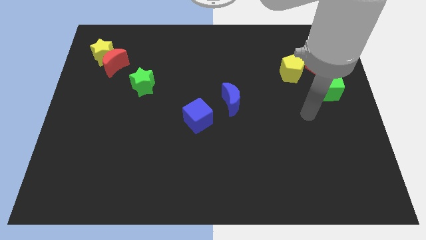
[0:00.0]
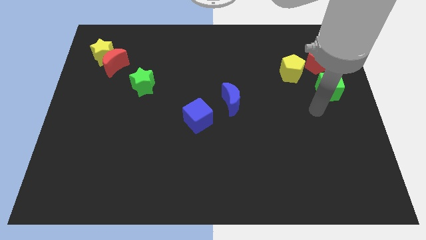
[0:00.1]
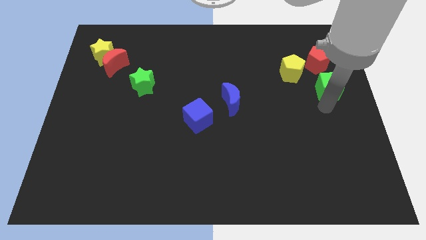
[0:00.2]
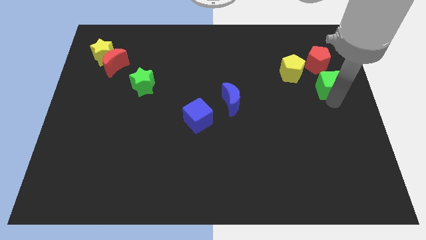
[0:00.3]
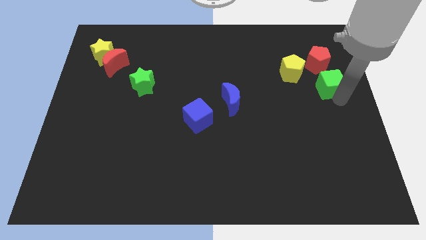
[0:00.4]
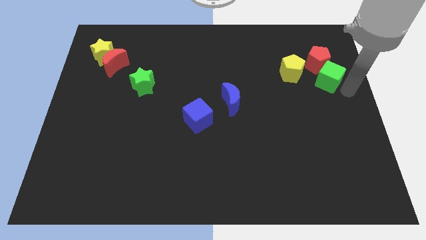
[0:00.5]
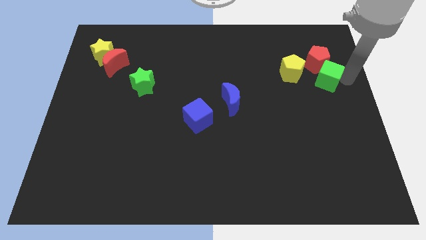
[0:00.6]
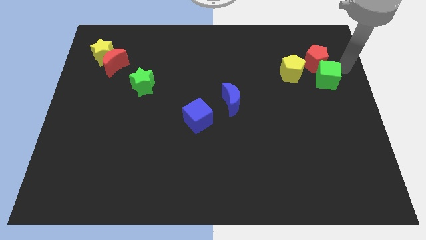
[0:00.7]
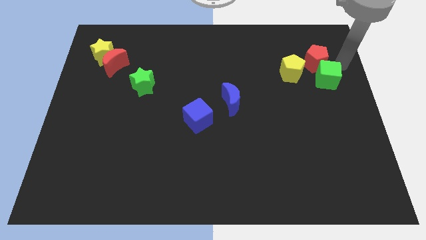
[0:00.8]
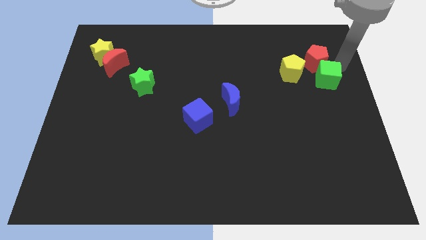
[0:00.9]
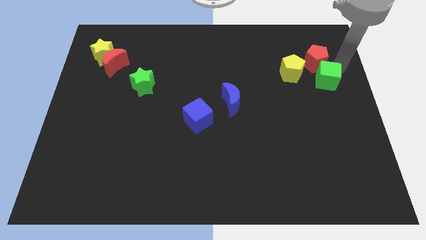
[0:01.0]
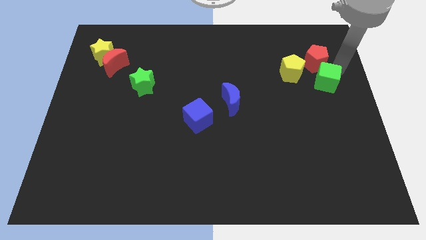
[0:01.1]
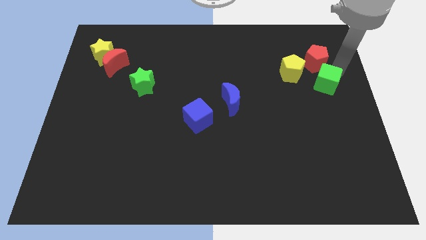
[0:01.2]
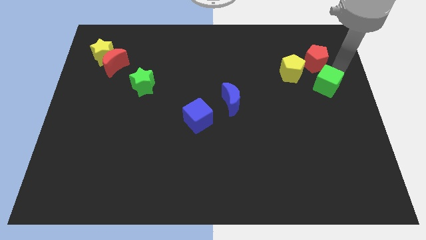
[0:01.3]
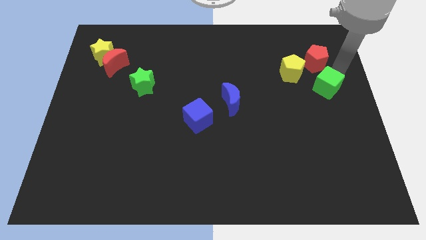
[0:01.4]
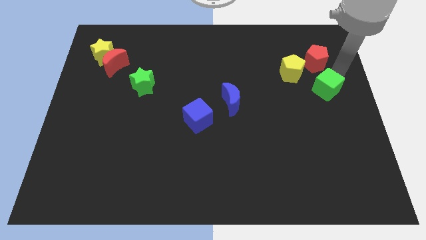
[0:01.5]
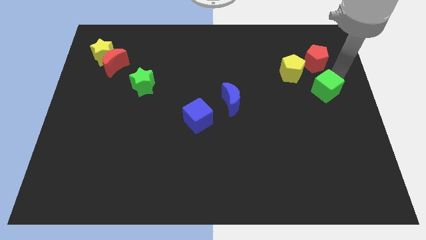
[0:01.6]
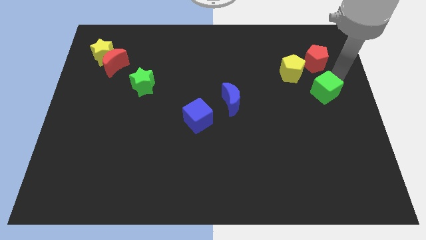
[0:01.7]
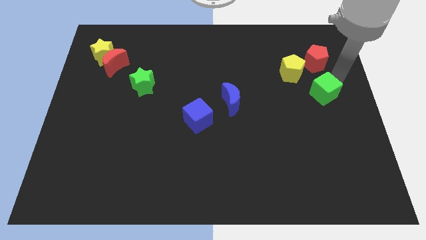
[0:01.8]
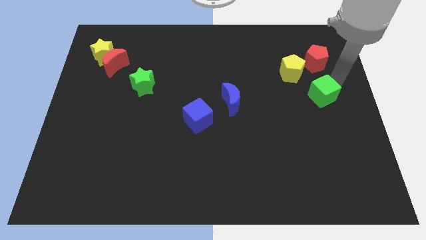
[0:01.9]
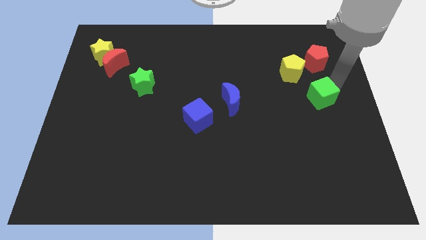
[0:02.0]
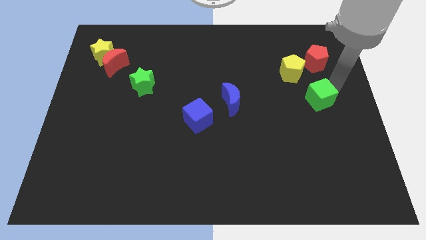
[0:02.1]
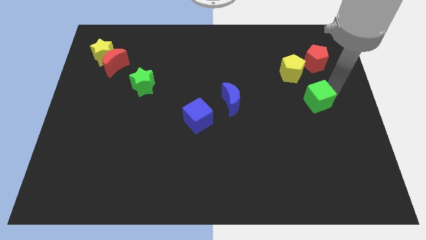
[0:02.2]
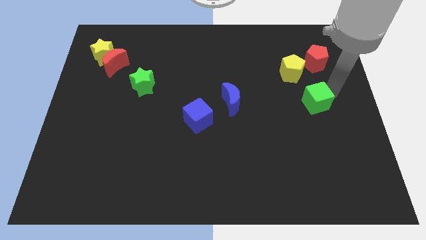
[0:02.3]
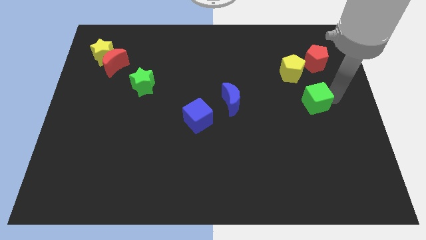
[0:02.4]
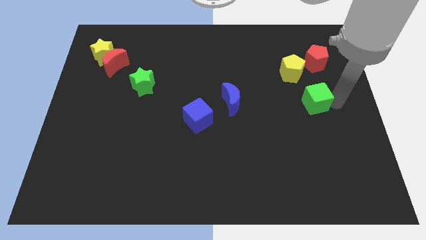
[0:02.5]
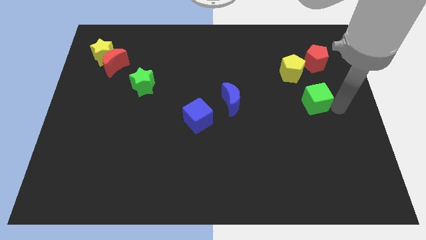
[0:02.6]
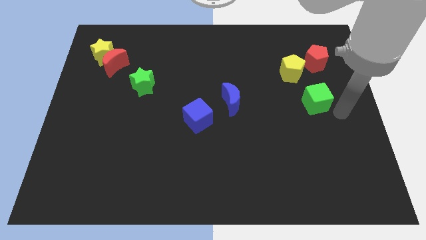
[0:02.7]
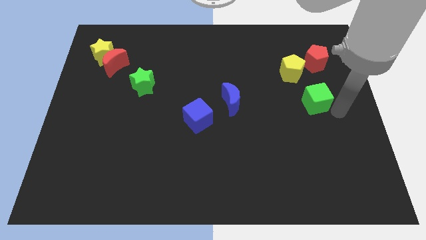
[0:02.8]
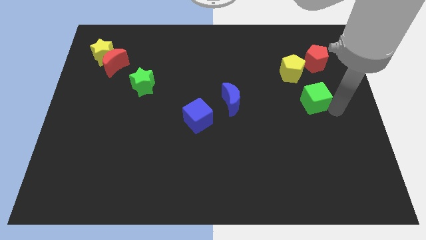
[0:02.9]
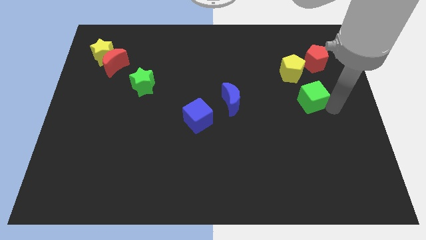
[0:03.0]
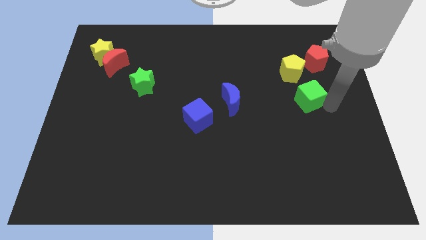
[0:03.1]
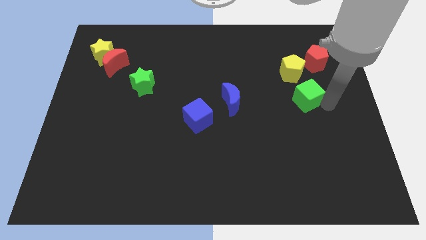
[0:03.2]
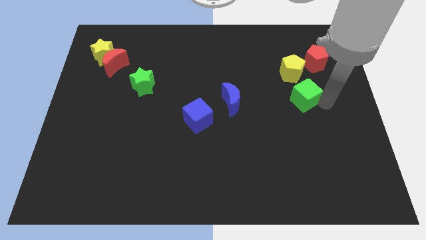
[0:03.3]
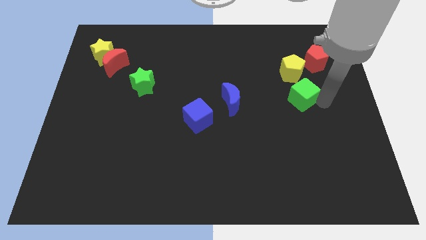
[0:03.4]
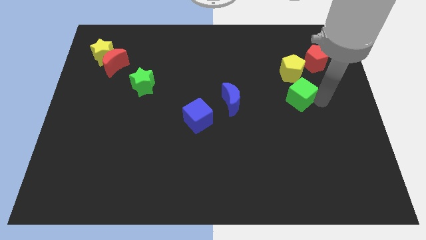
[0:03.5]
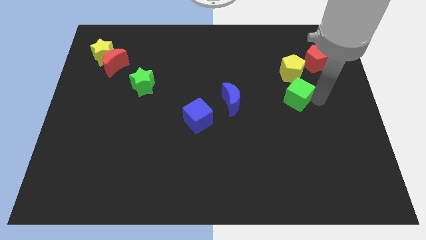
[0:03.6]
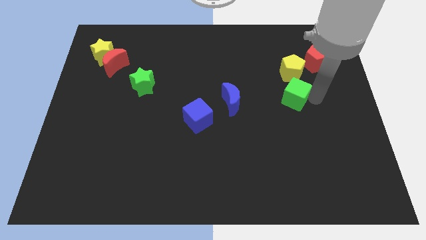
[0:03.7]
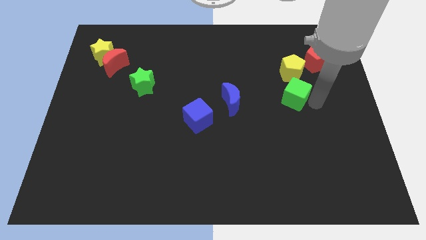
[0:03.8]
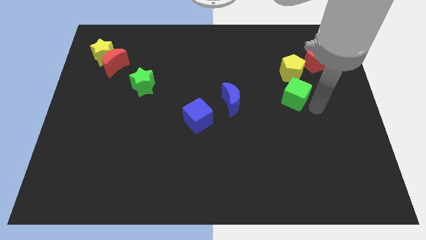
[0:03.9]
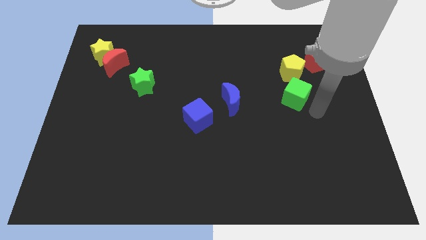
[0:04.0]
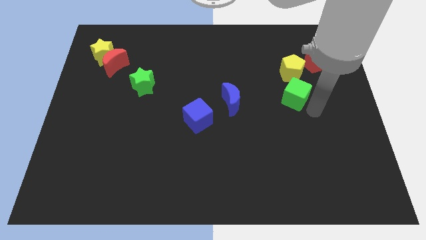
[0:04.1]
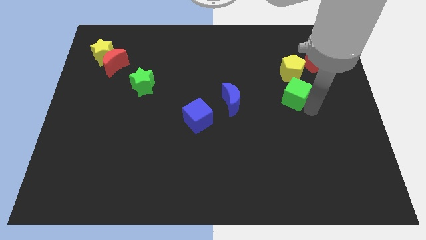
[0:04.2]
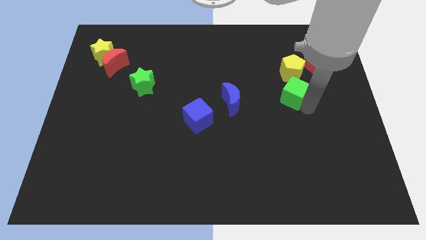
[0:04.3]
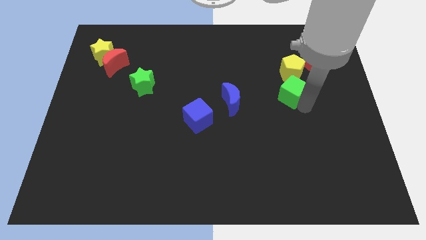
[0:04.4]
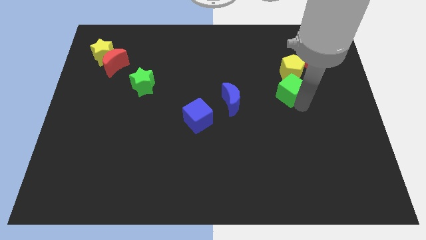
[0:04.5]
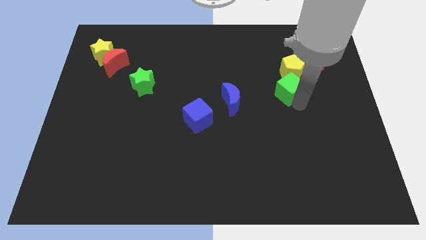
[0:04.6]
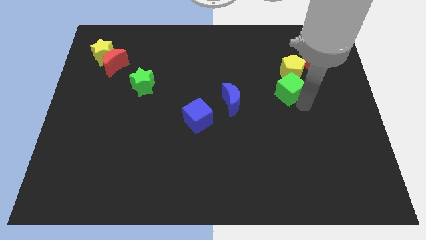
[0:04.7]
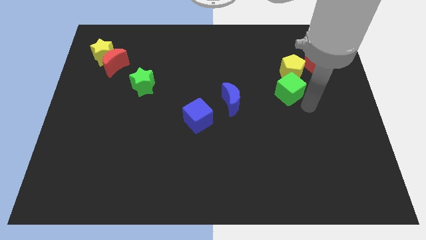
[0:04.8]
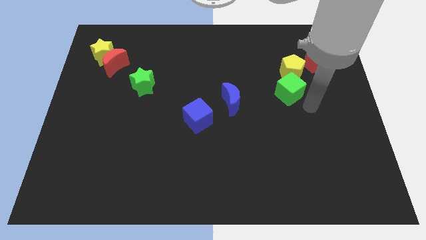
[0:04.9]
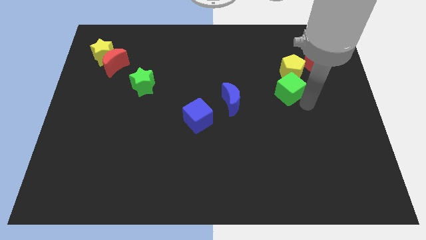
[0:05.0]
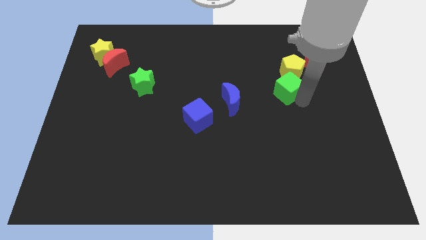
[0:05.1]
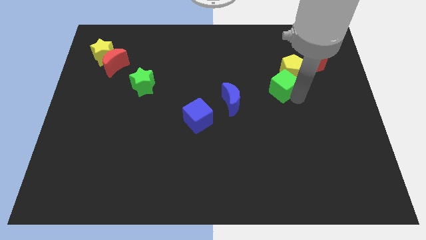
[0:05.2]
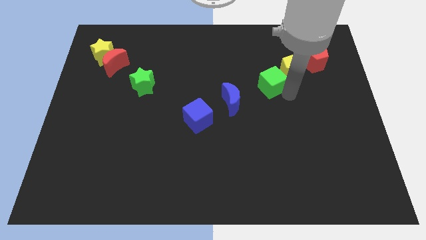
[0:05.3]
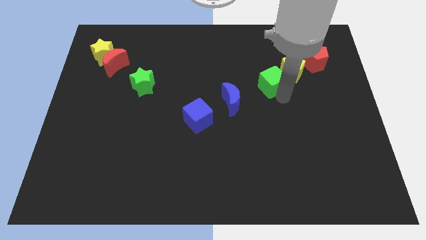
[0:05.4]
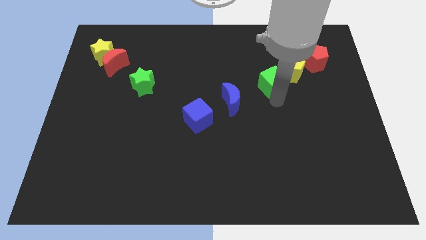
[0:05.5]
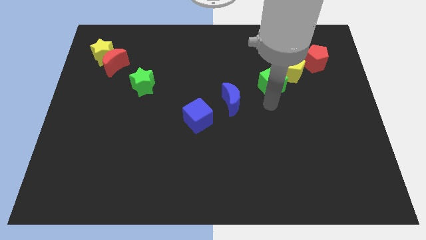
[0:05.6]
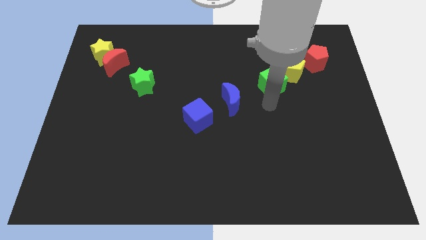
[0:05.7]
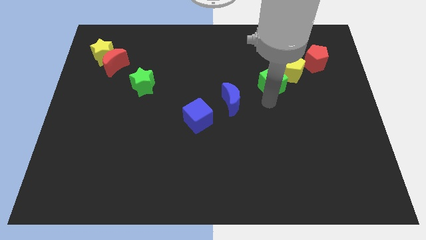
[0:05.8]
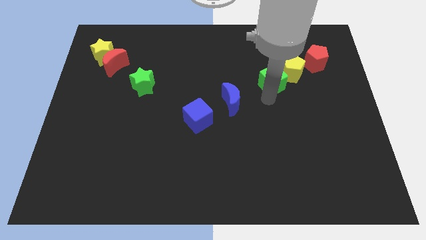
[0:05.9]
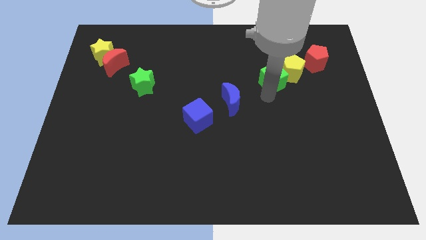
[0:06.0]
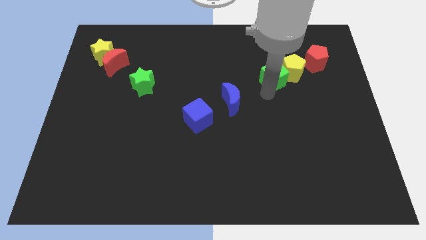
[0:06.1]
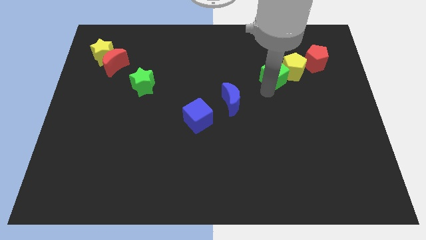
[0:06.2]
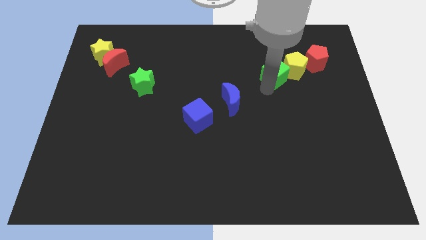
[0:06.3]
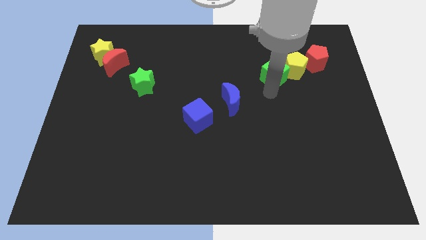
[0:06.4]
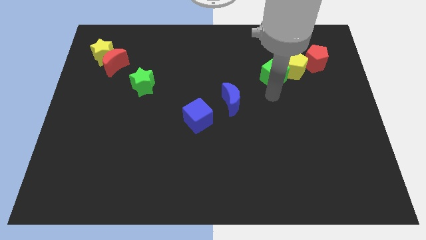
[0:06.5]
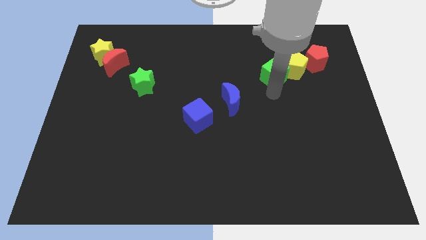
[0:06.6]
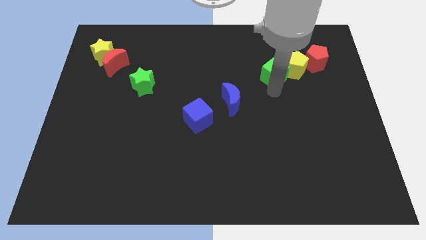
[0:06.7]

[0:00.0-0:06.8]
put the green cube to the left side of the red pentagon

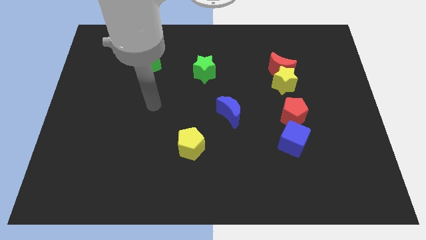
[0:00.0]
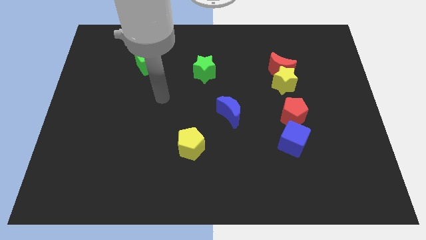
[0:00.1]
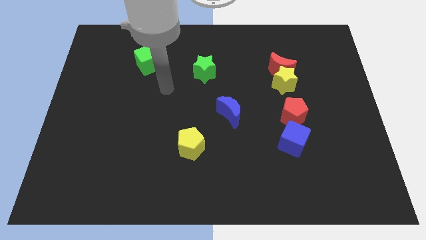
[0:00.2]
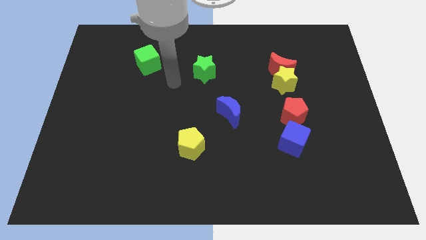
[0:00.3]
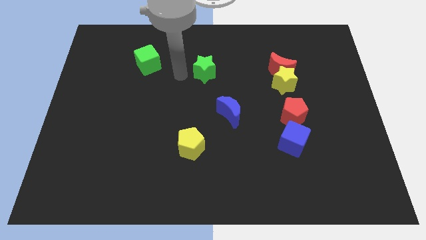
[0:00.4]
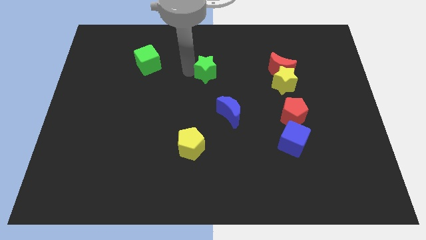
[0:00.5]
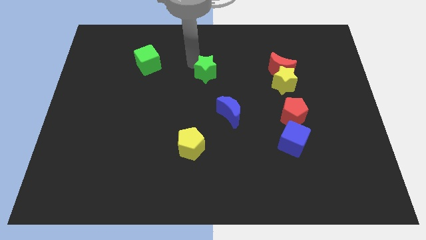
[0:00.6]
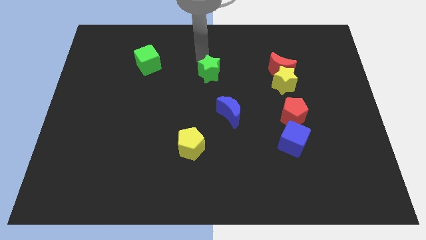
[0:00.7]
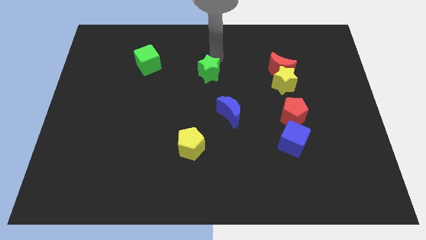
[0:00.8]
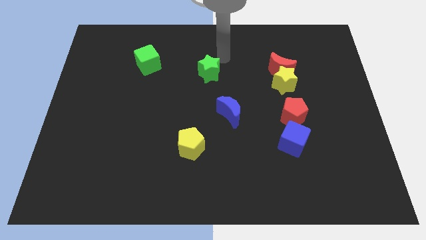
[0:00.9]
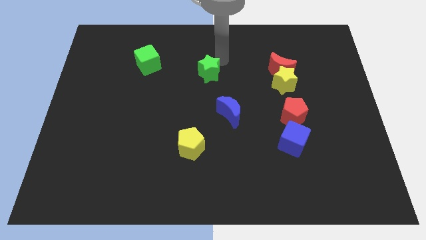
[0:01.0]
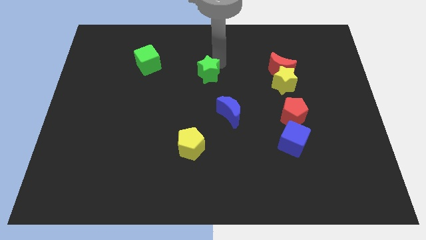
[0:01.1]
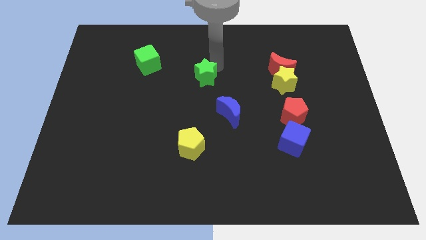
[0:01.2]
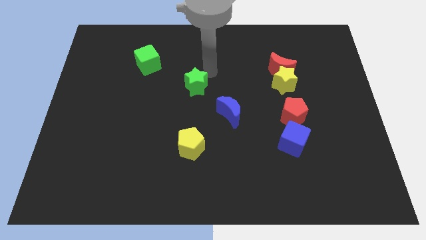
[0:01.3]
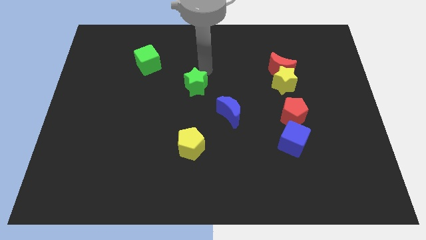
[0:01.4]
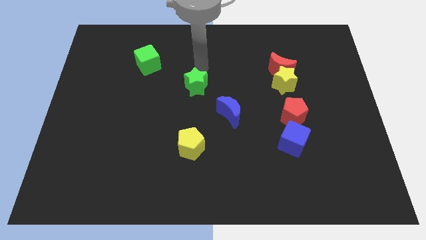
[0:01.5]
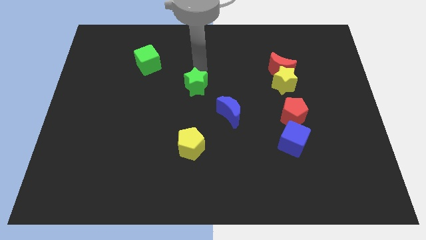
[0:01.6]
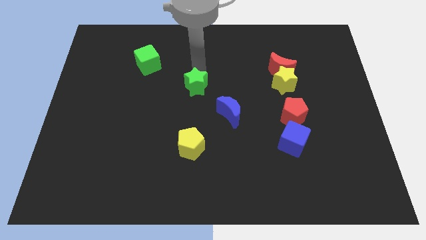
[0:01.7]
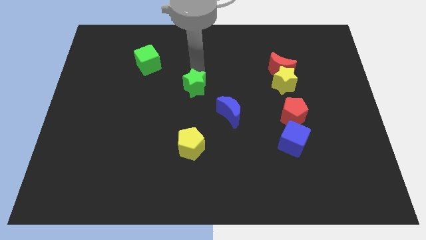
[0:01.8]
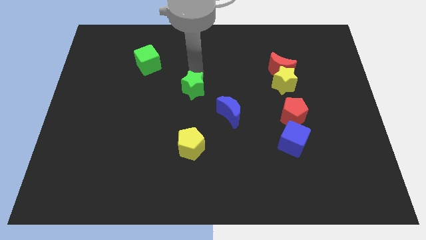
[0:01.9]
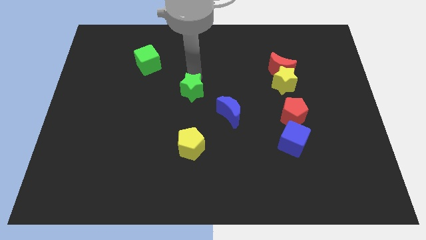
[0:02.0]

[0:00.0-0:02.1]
put the green star to the top side of the yellow pentagon
